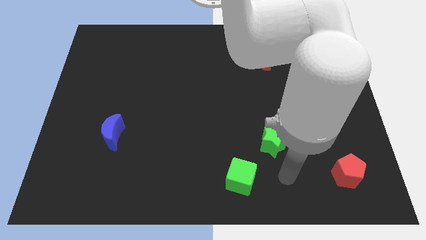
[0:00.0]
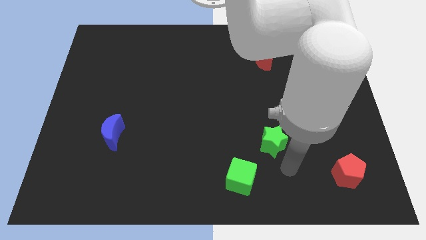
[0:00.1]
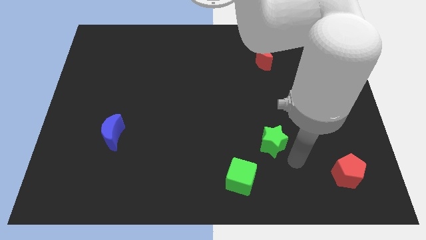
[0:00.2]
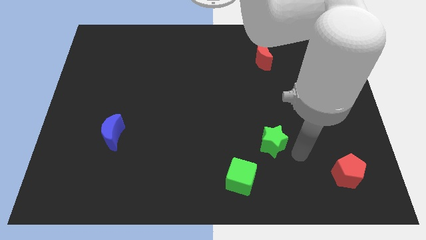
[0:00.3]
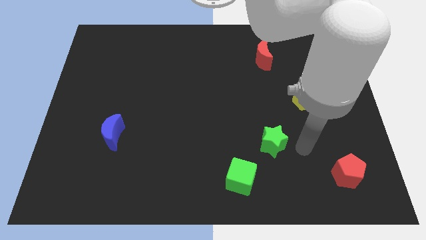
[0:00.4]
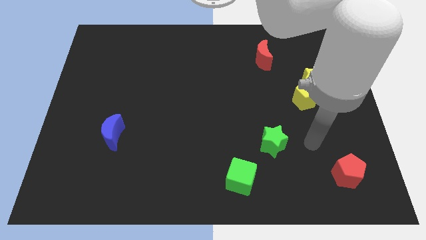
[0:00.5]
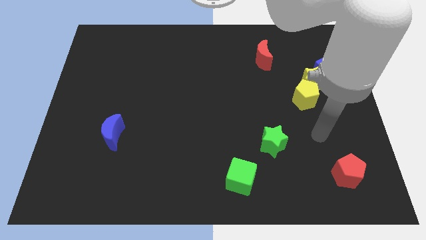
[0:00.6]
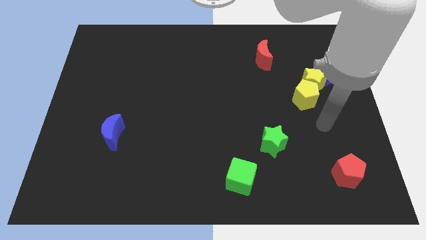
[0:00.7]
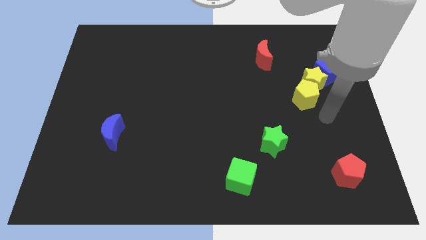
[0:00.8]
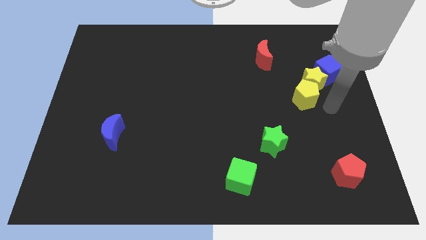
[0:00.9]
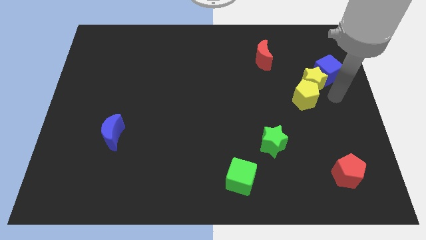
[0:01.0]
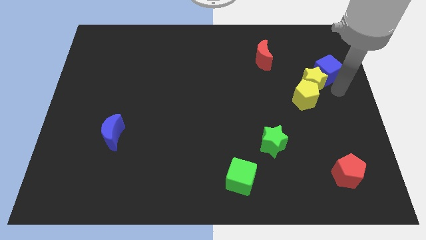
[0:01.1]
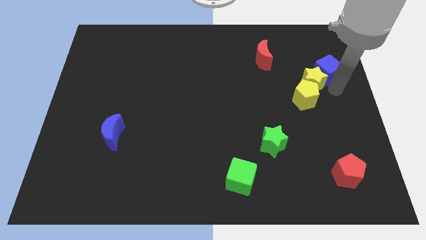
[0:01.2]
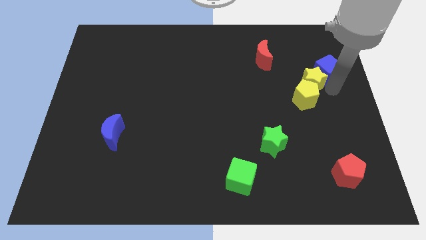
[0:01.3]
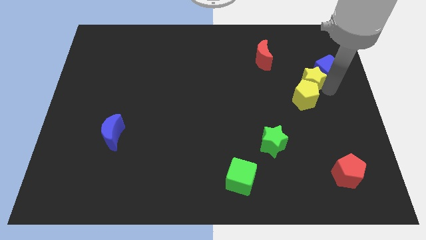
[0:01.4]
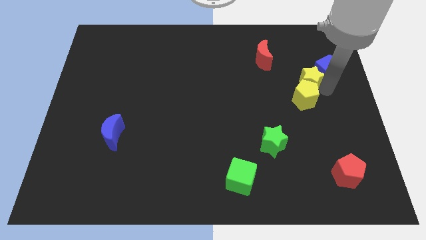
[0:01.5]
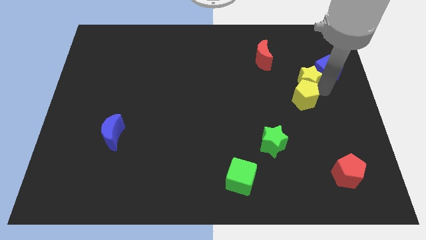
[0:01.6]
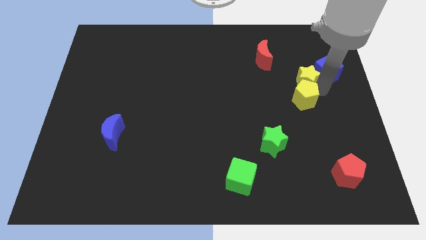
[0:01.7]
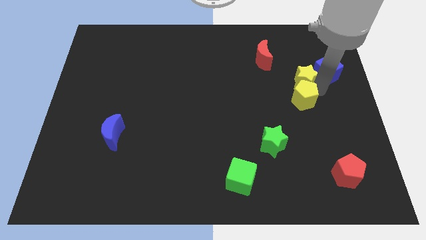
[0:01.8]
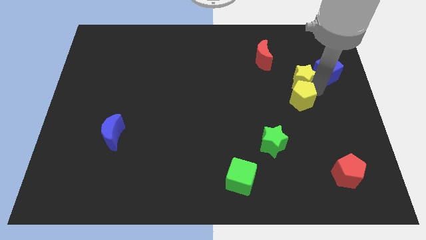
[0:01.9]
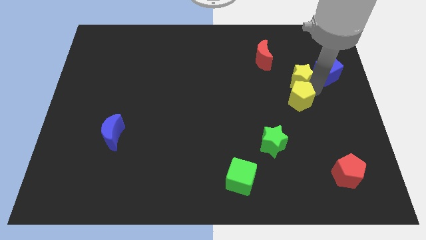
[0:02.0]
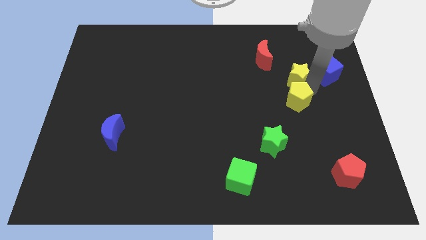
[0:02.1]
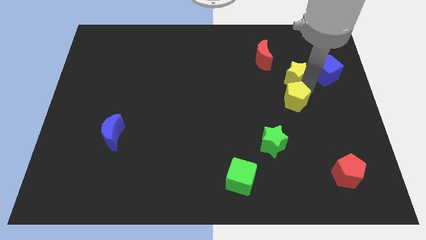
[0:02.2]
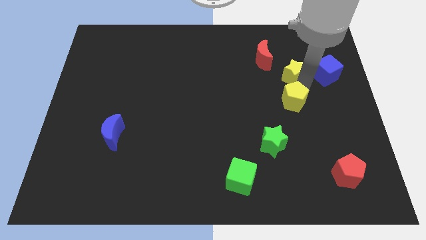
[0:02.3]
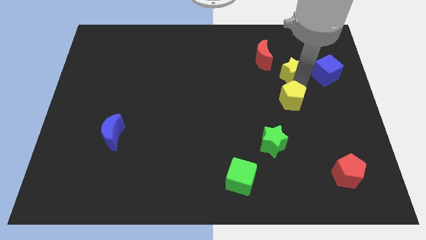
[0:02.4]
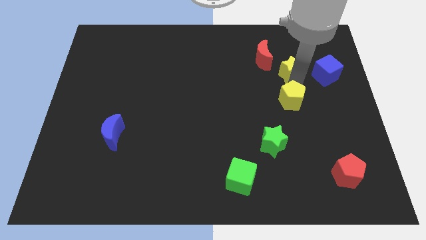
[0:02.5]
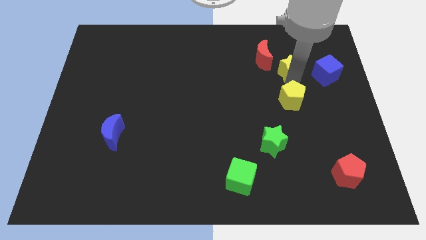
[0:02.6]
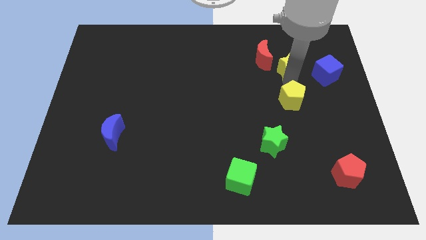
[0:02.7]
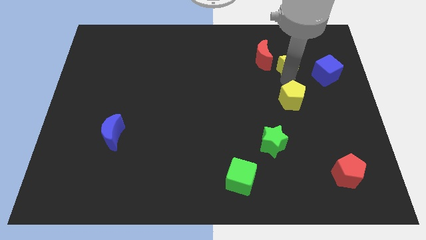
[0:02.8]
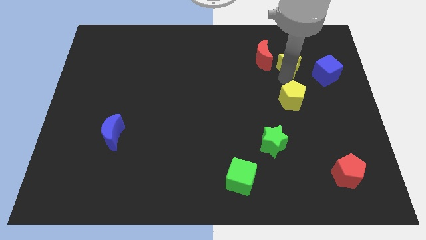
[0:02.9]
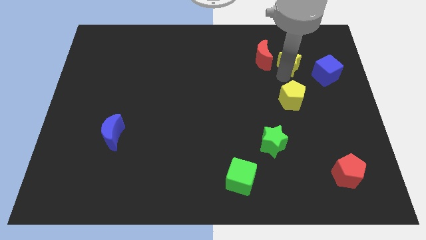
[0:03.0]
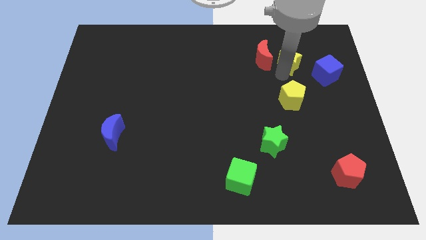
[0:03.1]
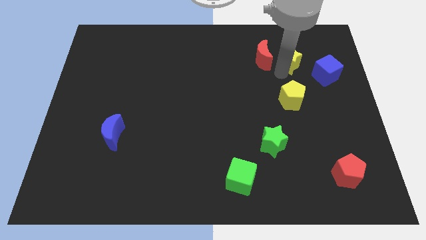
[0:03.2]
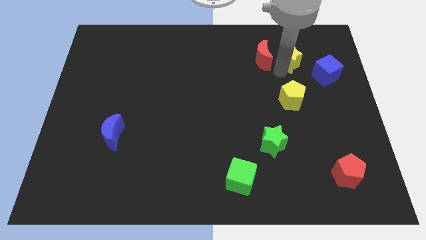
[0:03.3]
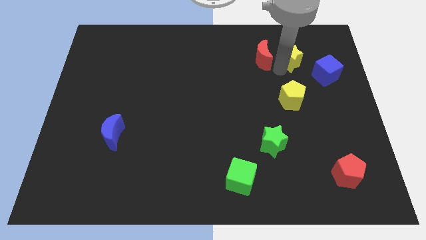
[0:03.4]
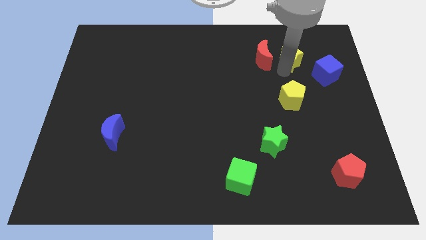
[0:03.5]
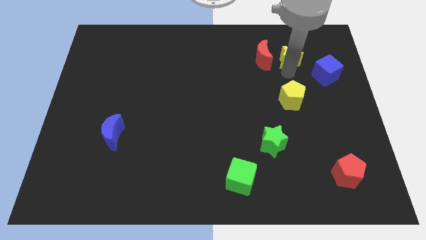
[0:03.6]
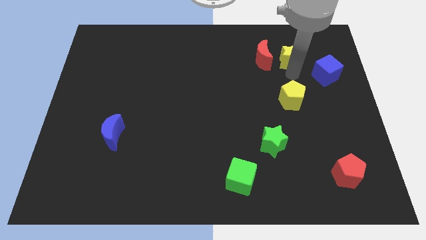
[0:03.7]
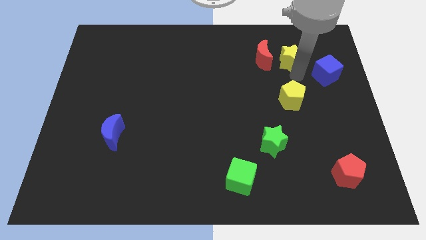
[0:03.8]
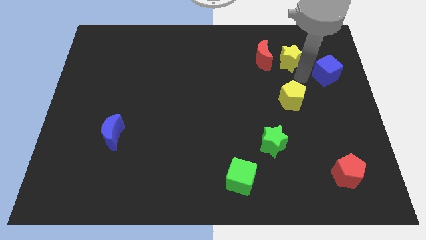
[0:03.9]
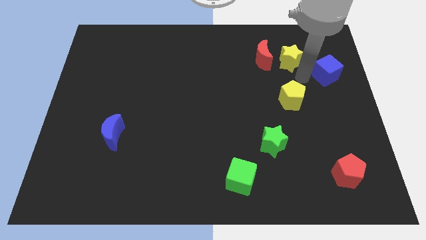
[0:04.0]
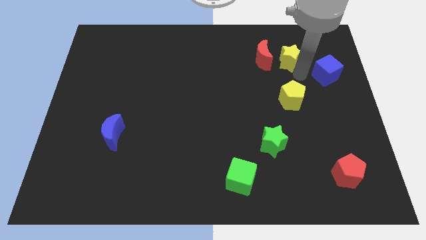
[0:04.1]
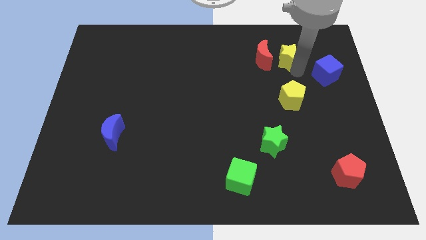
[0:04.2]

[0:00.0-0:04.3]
move the yellow star away from the yellow pentagon and blue cube

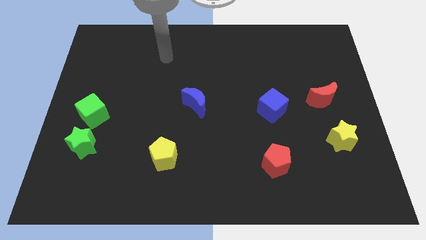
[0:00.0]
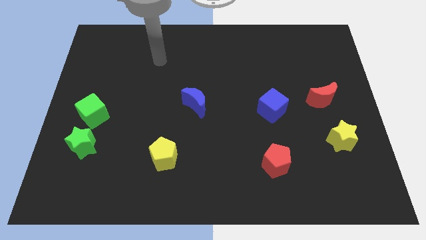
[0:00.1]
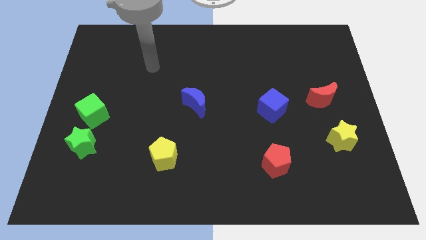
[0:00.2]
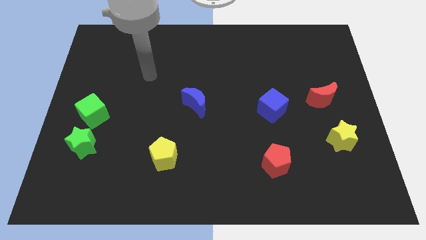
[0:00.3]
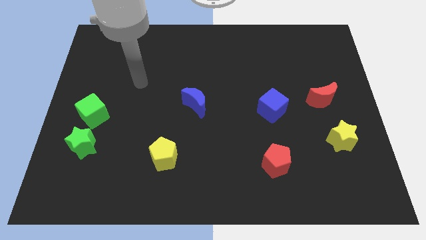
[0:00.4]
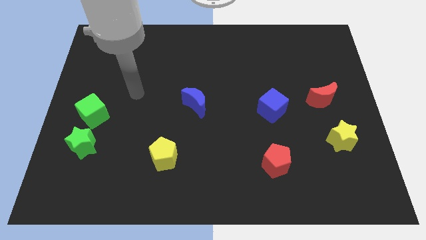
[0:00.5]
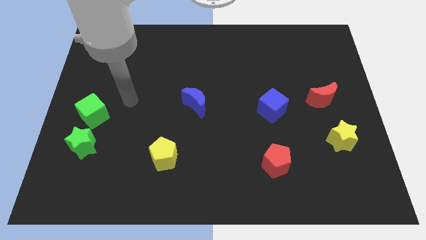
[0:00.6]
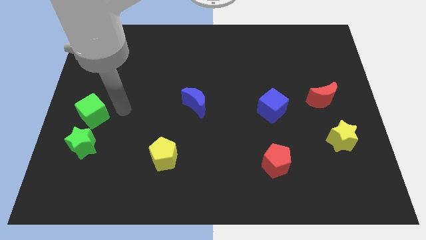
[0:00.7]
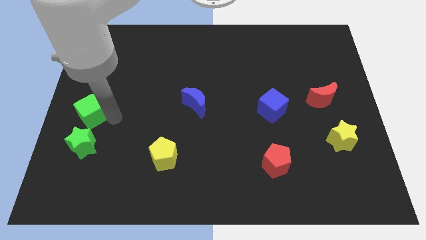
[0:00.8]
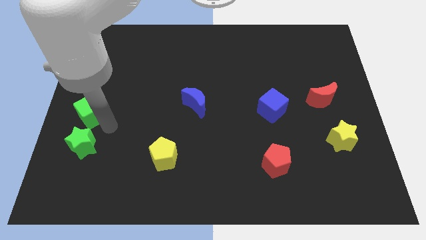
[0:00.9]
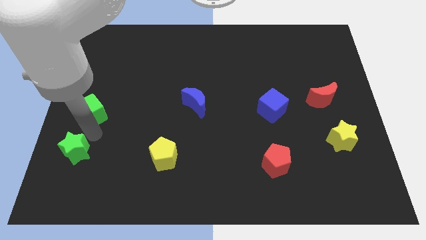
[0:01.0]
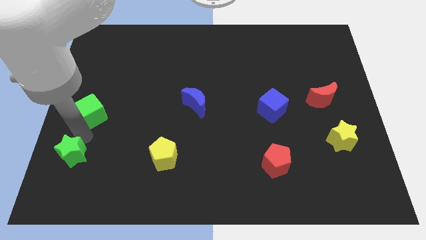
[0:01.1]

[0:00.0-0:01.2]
pull the green cube apart from the green star

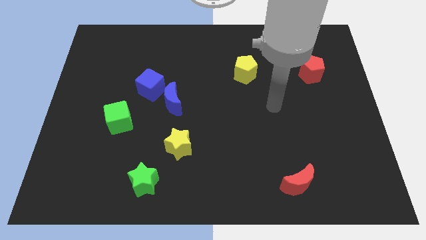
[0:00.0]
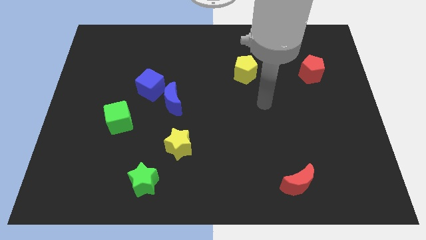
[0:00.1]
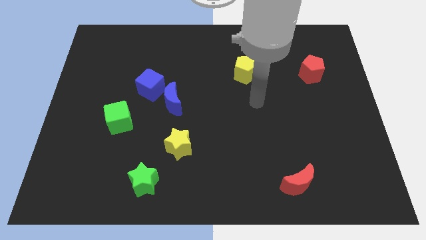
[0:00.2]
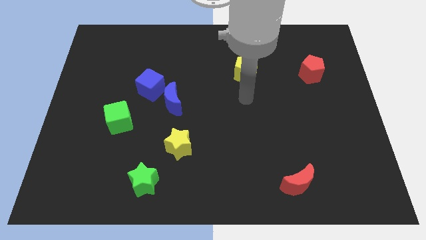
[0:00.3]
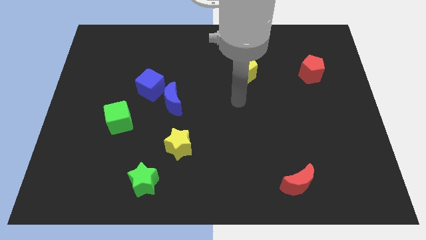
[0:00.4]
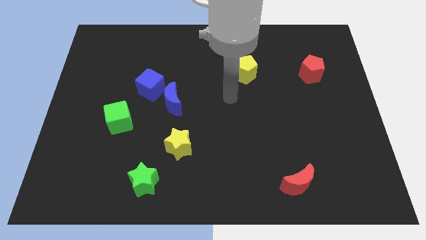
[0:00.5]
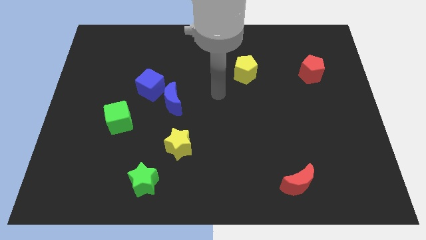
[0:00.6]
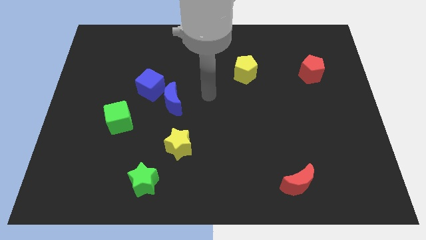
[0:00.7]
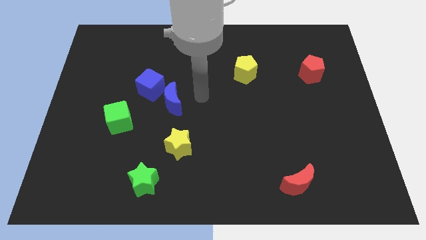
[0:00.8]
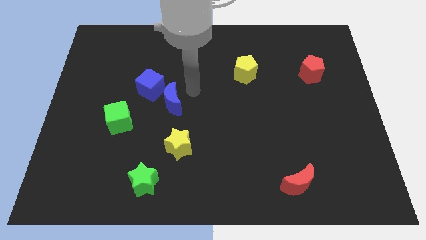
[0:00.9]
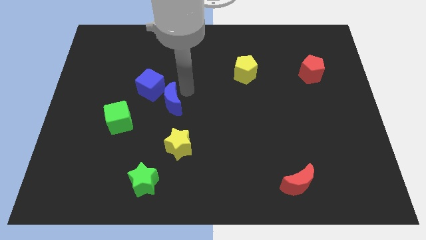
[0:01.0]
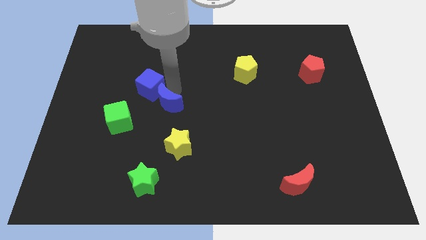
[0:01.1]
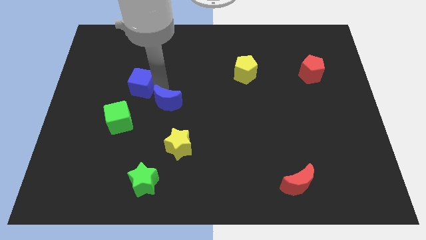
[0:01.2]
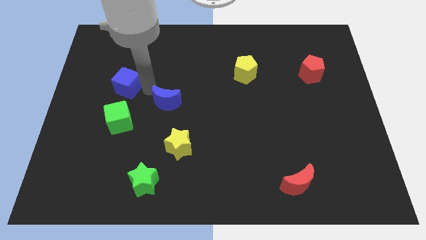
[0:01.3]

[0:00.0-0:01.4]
move the blue moon away from the blue cube

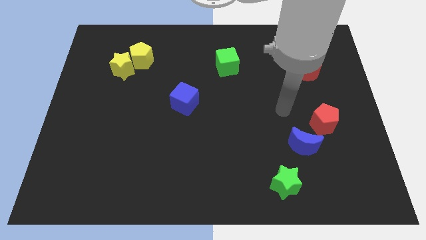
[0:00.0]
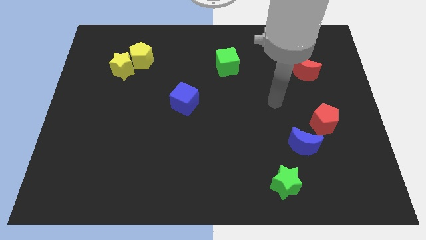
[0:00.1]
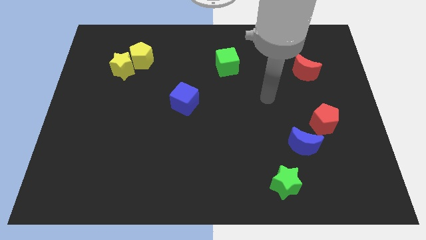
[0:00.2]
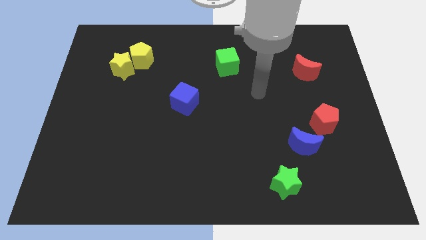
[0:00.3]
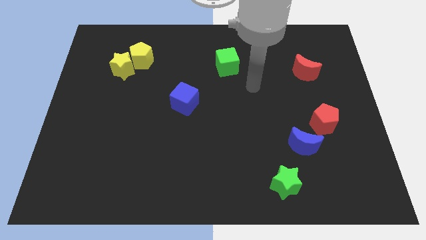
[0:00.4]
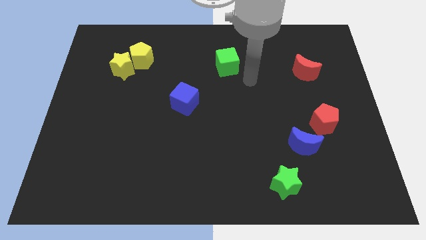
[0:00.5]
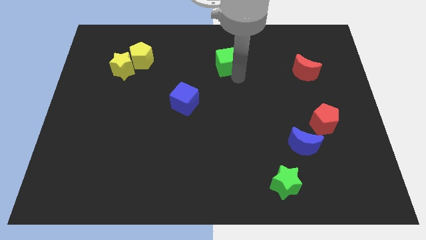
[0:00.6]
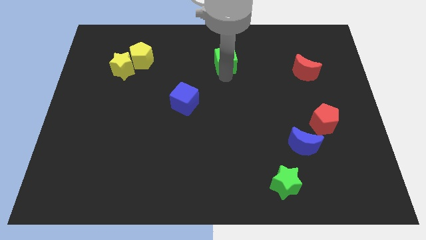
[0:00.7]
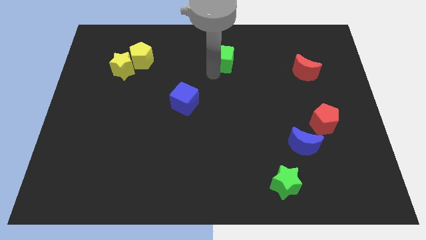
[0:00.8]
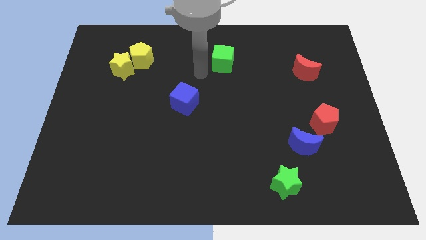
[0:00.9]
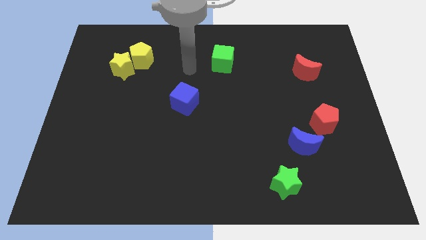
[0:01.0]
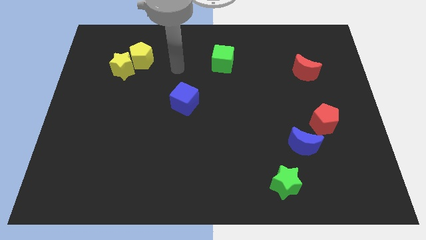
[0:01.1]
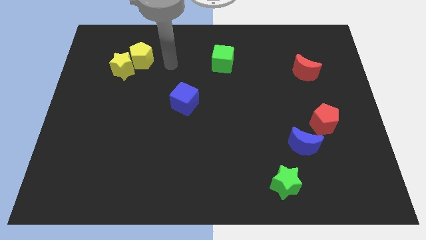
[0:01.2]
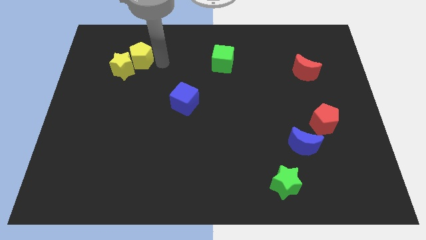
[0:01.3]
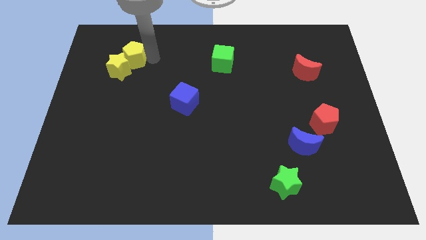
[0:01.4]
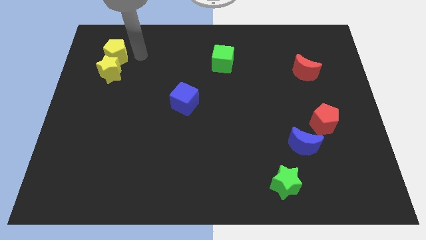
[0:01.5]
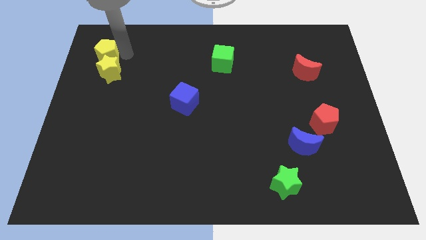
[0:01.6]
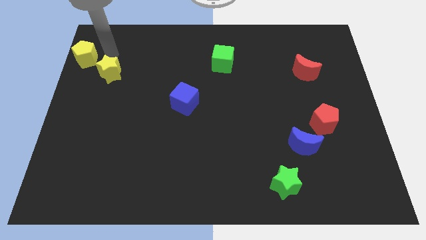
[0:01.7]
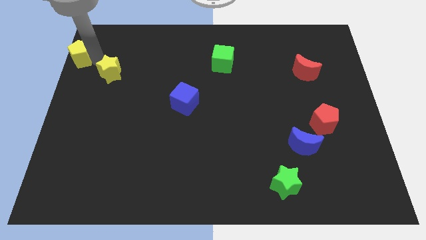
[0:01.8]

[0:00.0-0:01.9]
move the yellow star away from the yellow pentagon

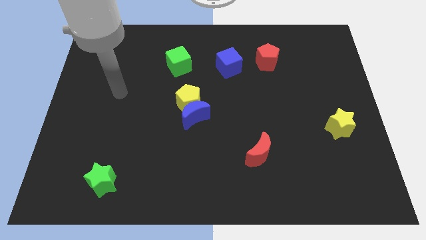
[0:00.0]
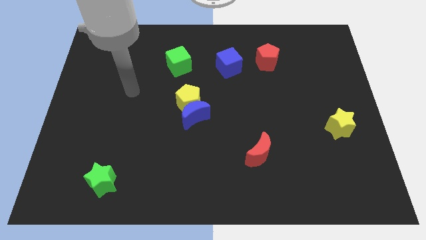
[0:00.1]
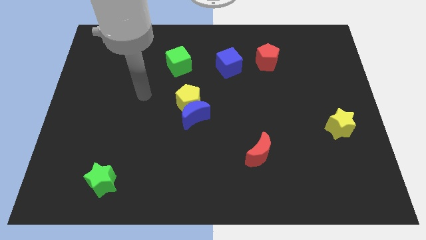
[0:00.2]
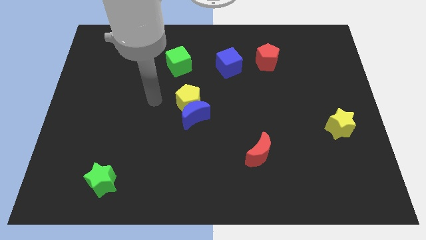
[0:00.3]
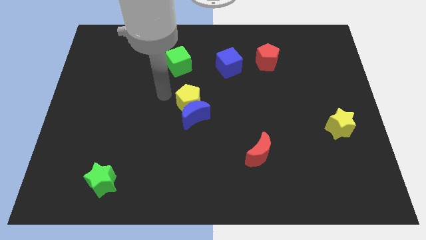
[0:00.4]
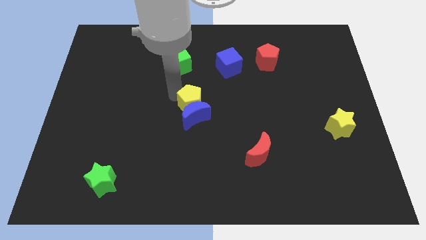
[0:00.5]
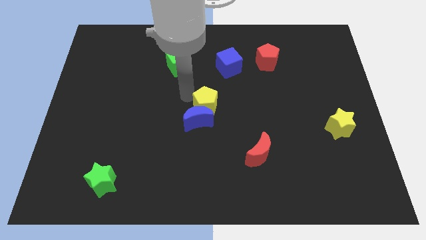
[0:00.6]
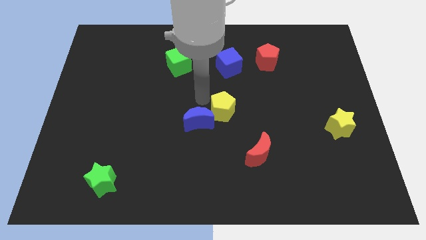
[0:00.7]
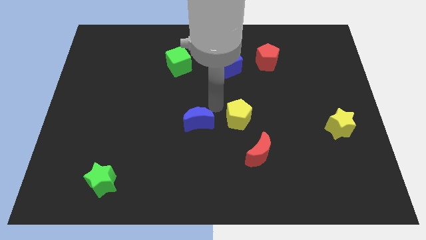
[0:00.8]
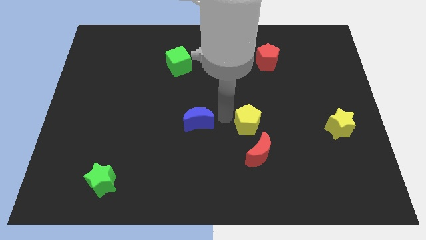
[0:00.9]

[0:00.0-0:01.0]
pull the blue moon apart from the yellow pentagon
